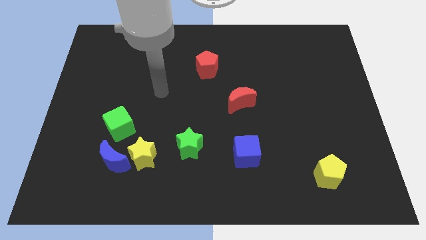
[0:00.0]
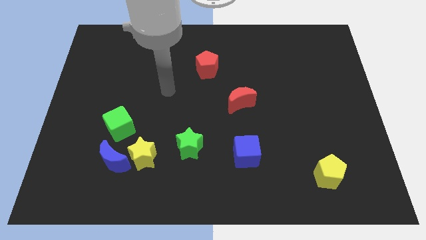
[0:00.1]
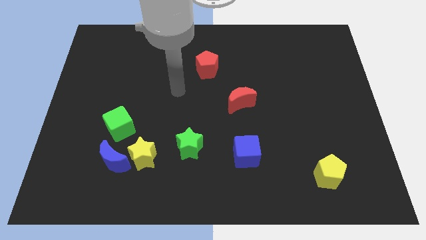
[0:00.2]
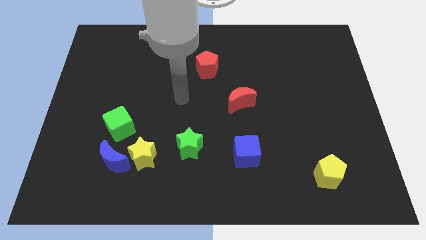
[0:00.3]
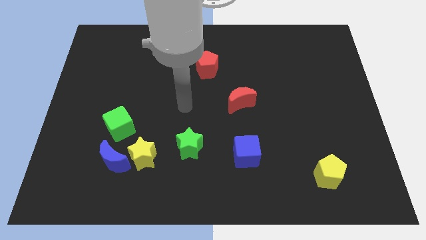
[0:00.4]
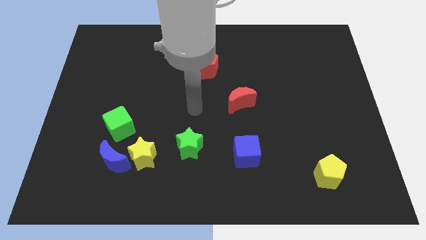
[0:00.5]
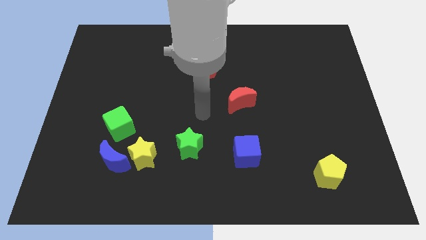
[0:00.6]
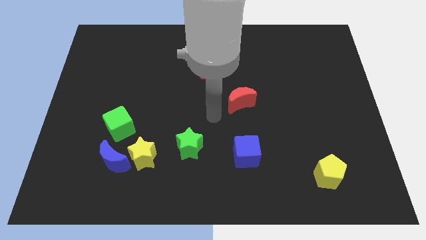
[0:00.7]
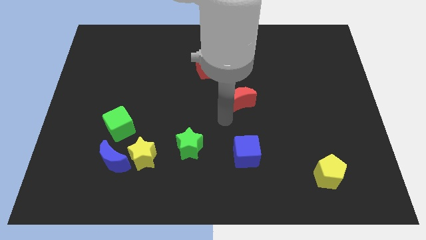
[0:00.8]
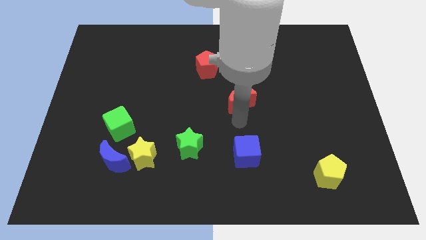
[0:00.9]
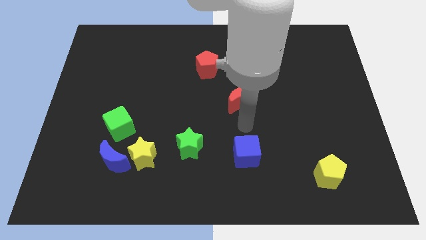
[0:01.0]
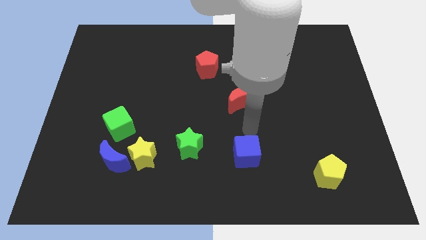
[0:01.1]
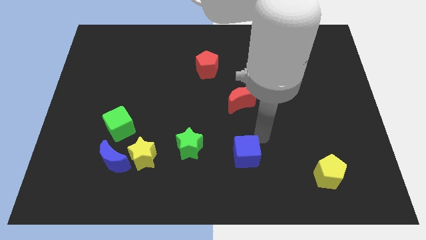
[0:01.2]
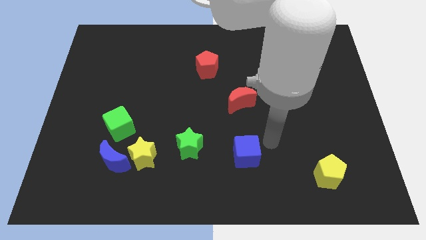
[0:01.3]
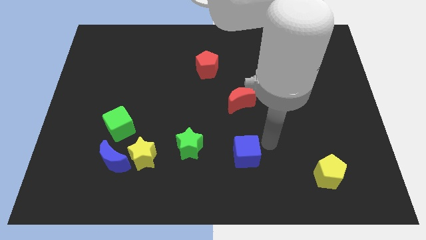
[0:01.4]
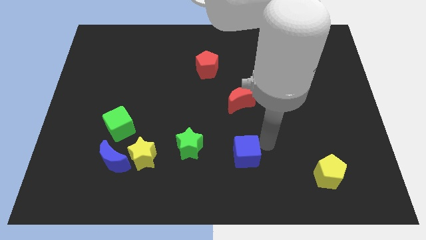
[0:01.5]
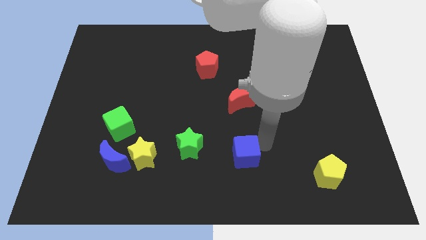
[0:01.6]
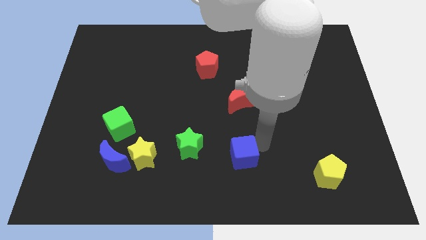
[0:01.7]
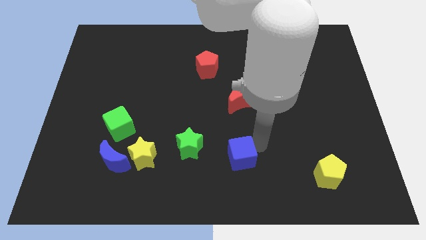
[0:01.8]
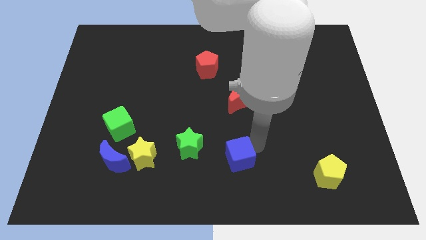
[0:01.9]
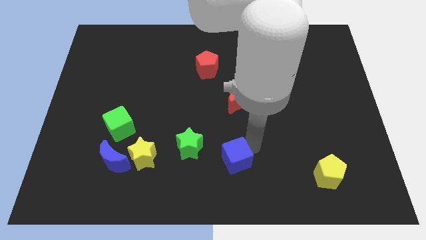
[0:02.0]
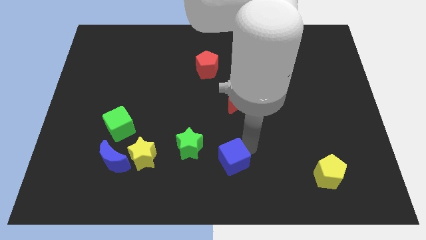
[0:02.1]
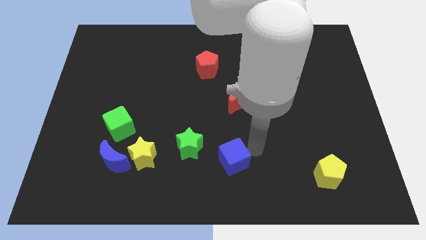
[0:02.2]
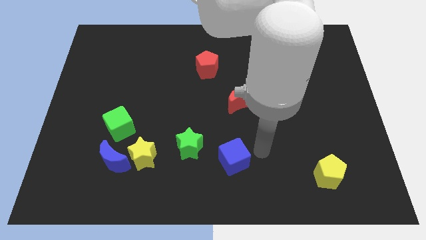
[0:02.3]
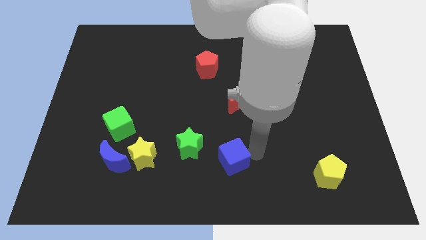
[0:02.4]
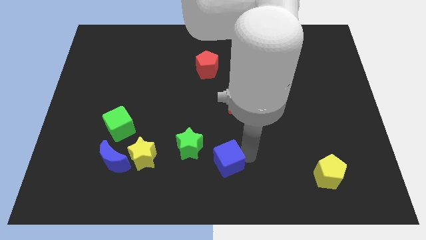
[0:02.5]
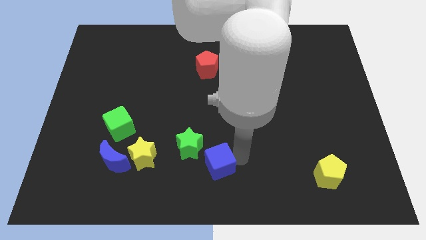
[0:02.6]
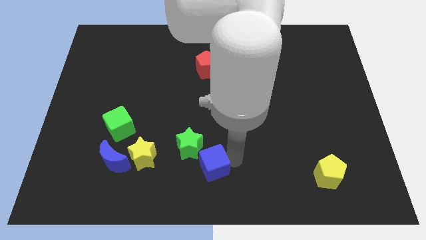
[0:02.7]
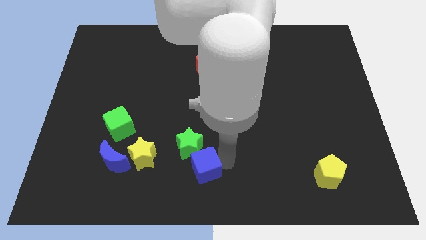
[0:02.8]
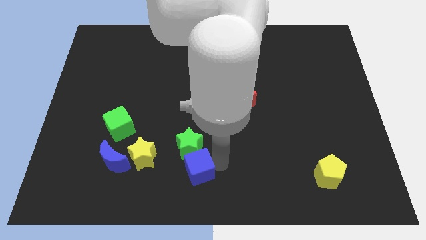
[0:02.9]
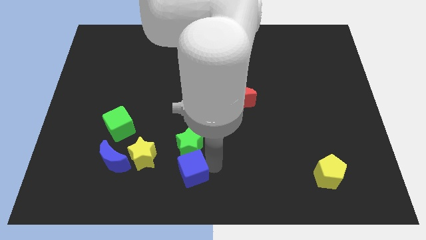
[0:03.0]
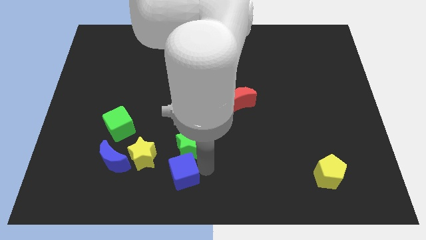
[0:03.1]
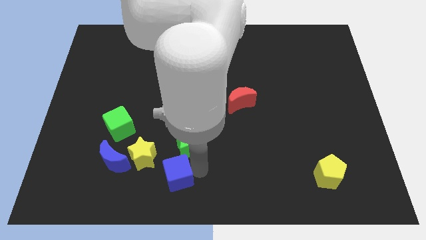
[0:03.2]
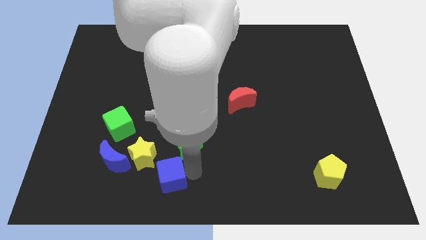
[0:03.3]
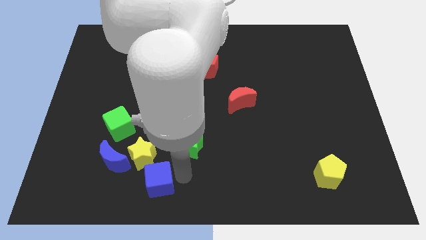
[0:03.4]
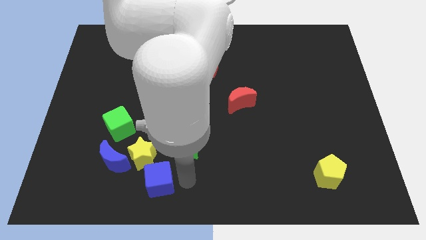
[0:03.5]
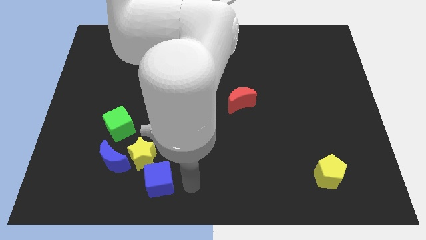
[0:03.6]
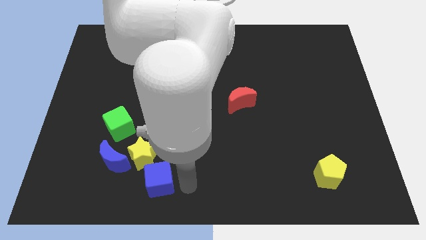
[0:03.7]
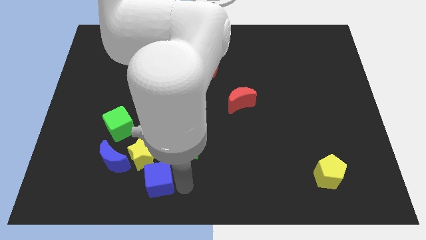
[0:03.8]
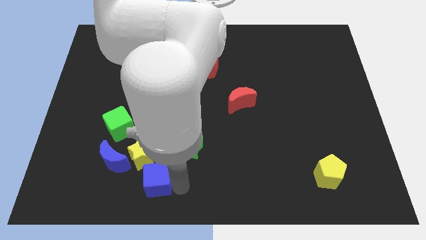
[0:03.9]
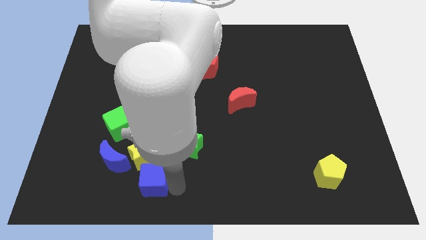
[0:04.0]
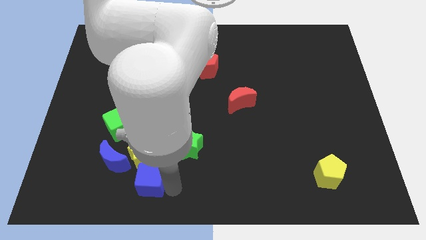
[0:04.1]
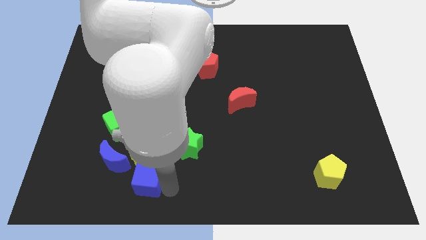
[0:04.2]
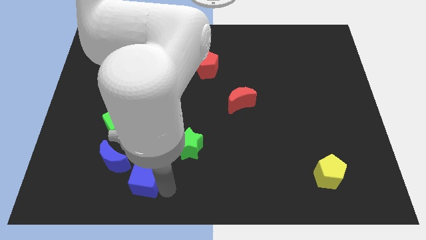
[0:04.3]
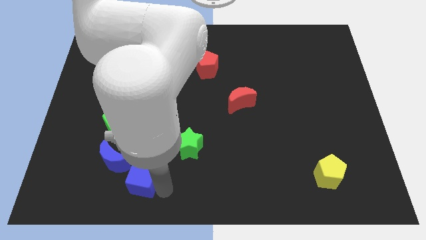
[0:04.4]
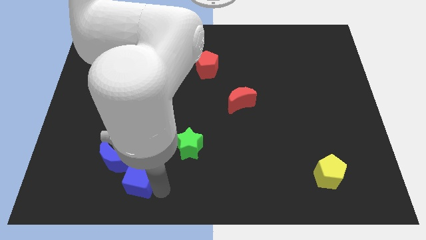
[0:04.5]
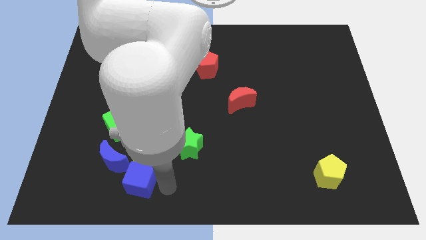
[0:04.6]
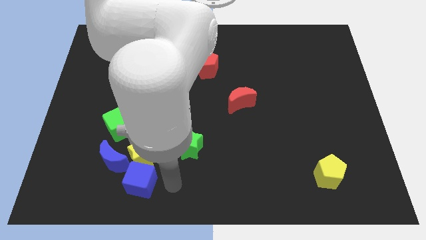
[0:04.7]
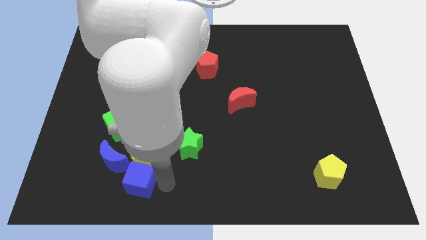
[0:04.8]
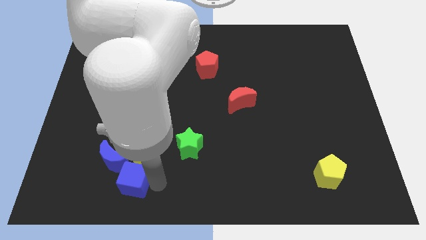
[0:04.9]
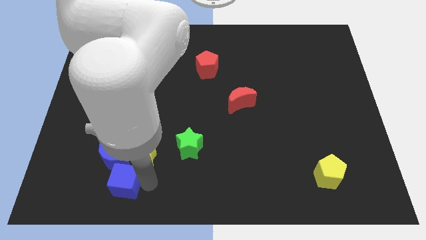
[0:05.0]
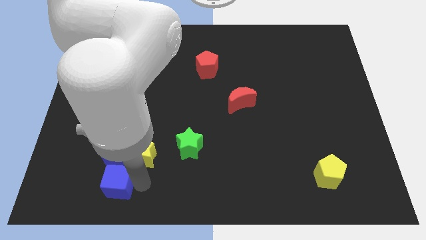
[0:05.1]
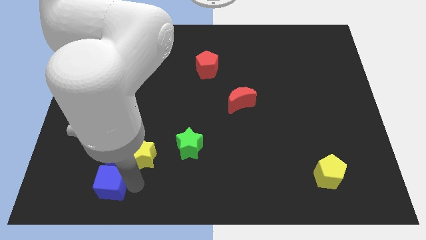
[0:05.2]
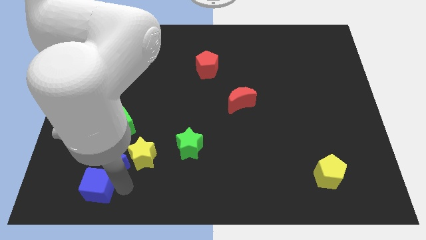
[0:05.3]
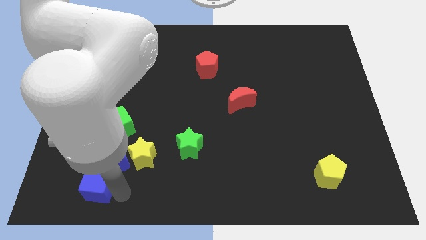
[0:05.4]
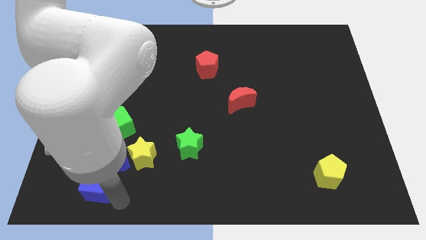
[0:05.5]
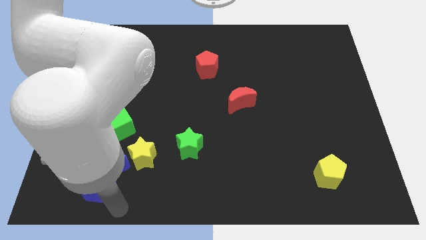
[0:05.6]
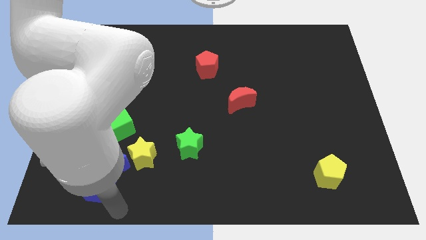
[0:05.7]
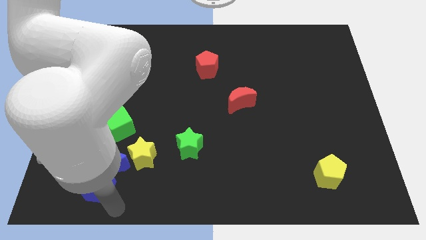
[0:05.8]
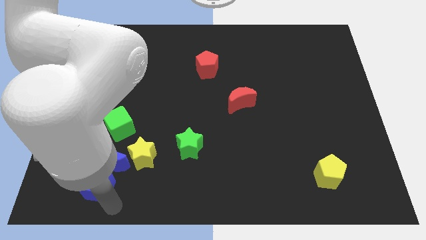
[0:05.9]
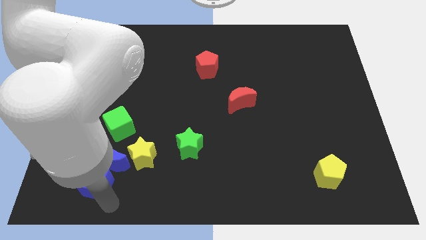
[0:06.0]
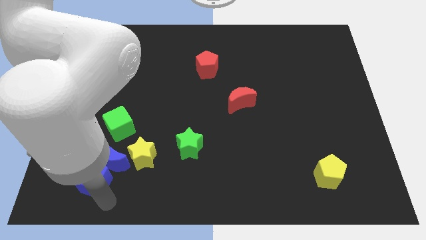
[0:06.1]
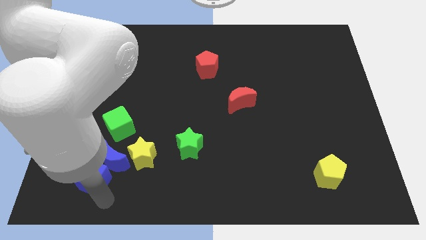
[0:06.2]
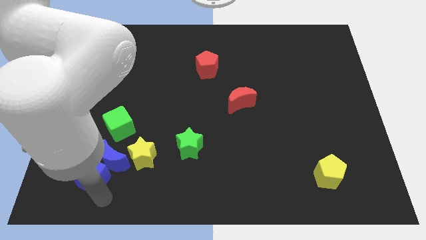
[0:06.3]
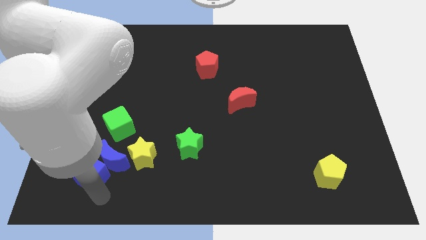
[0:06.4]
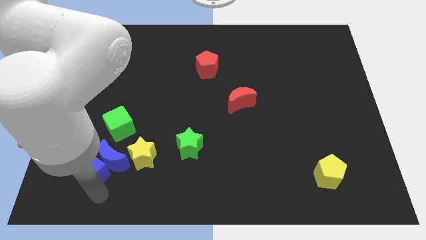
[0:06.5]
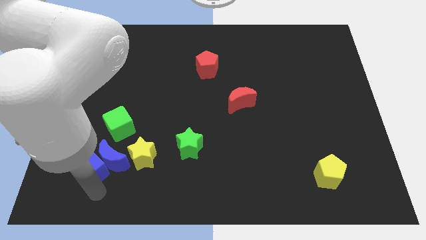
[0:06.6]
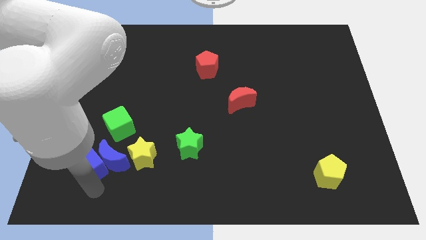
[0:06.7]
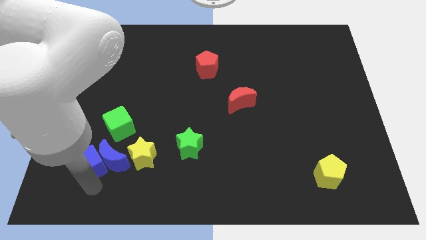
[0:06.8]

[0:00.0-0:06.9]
put the blue cube diagonally down and to the left of the green cube
